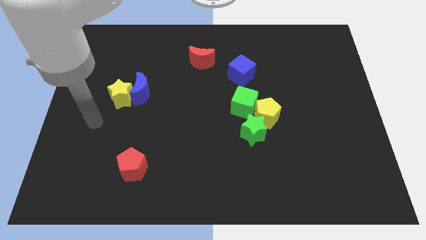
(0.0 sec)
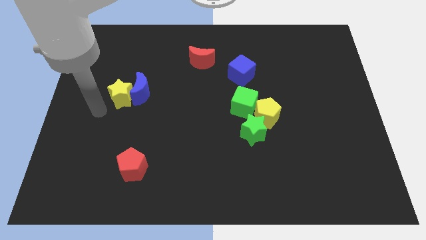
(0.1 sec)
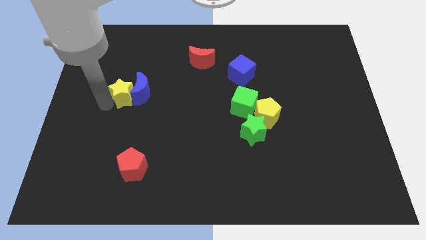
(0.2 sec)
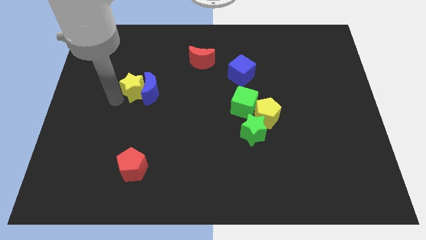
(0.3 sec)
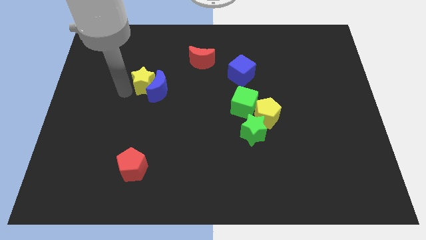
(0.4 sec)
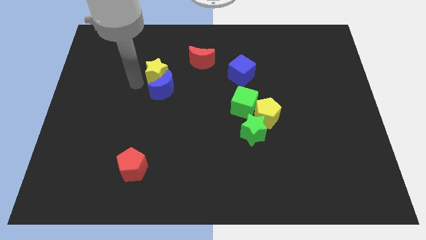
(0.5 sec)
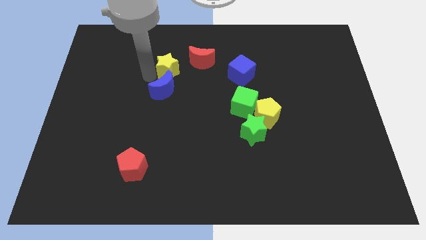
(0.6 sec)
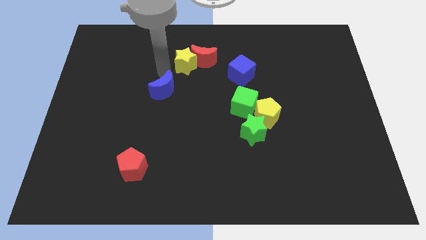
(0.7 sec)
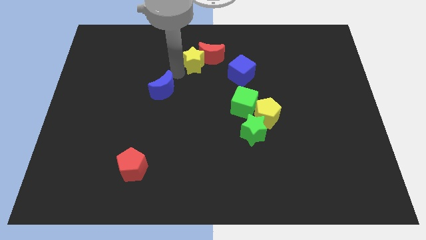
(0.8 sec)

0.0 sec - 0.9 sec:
separate the blue moon from the yellow star

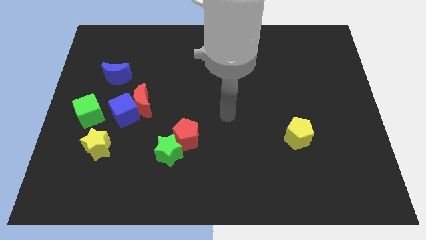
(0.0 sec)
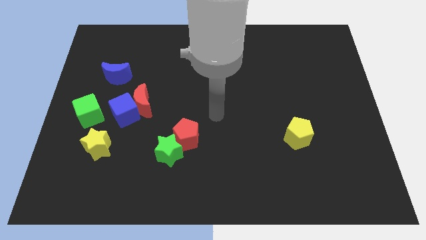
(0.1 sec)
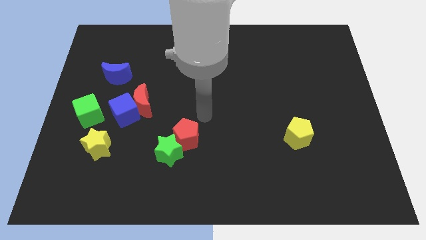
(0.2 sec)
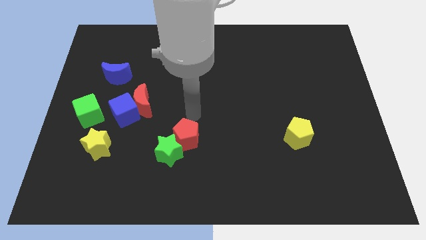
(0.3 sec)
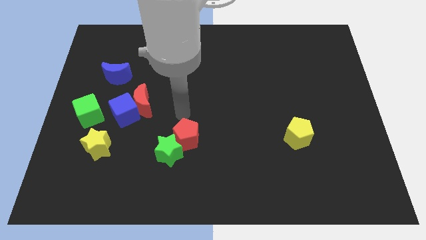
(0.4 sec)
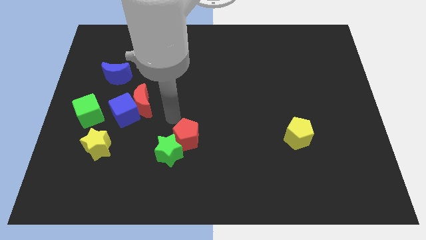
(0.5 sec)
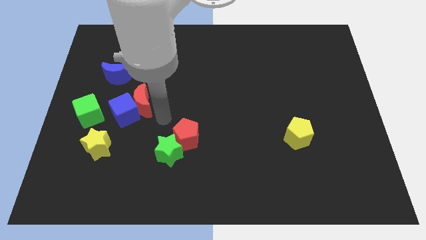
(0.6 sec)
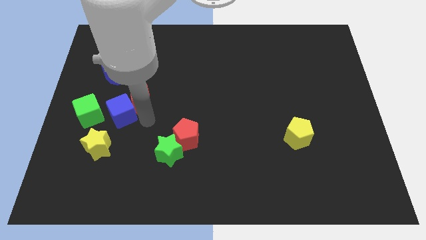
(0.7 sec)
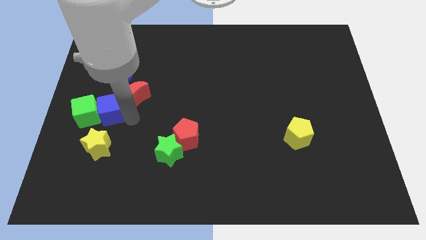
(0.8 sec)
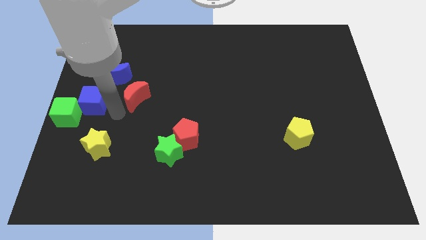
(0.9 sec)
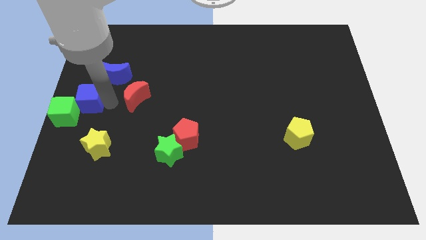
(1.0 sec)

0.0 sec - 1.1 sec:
pull the red moon apart from the blue cube

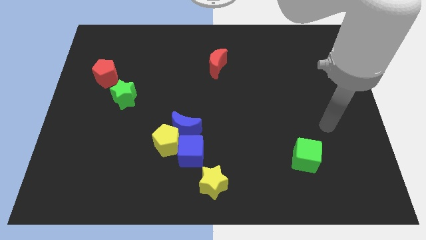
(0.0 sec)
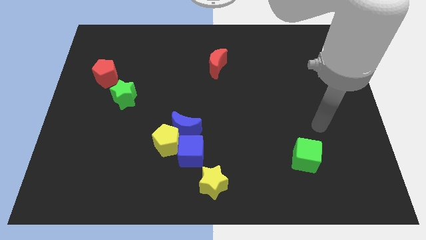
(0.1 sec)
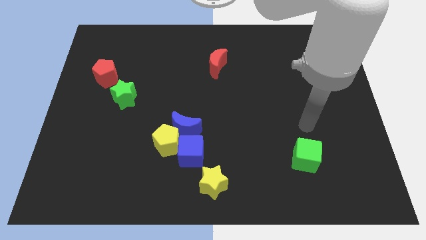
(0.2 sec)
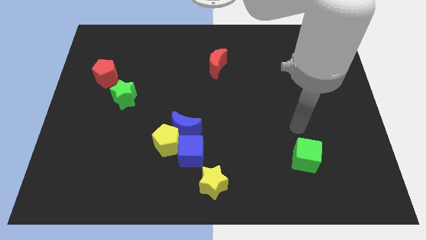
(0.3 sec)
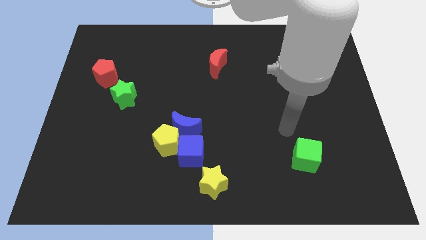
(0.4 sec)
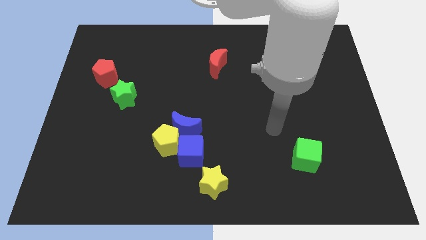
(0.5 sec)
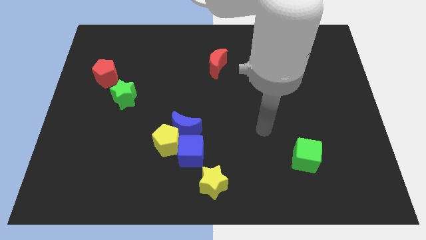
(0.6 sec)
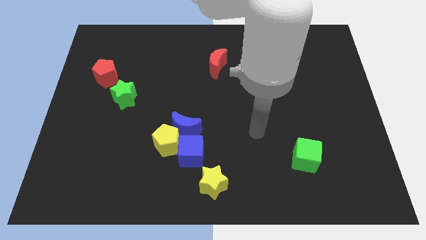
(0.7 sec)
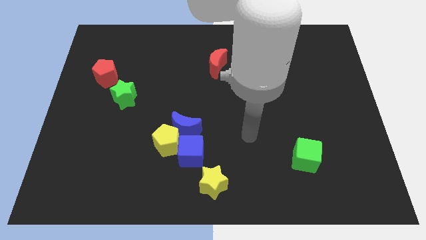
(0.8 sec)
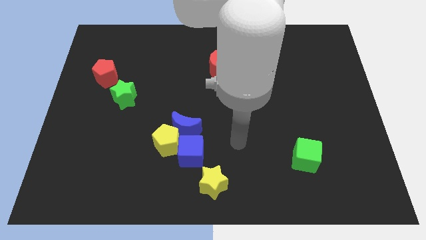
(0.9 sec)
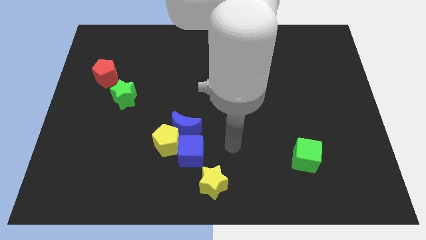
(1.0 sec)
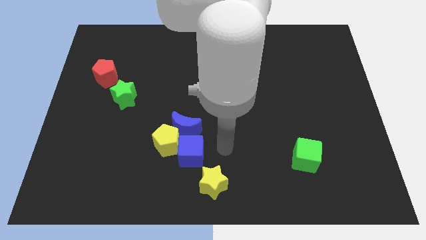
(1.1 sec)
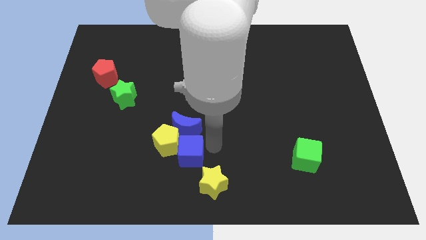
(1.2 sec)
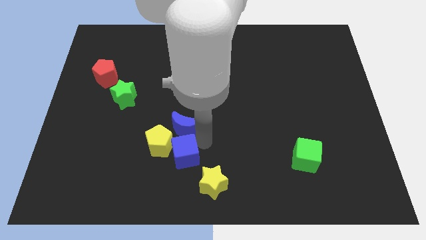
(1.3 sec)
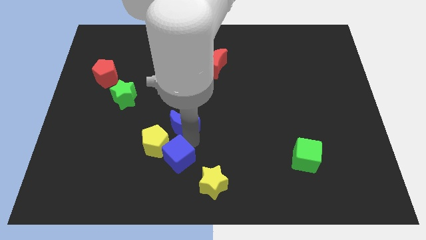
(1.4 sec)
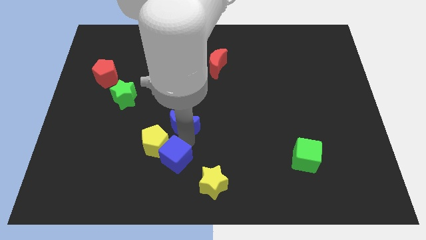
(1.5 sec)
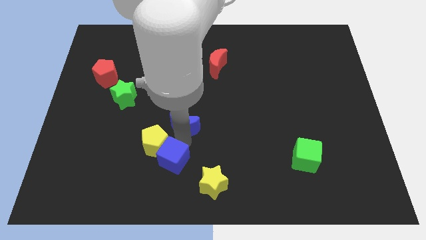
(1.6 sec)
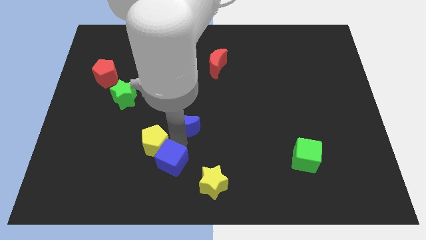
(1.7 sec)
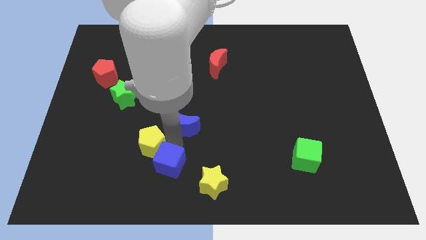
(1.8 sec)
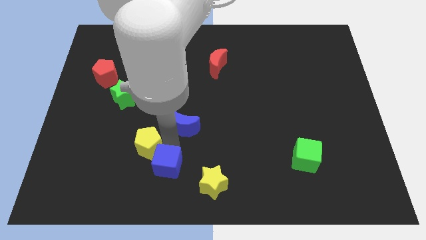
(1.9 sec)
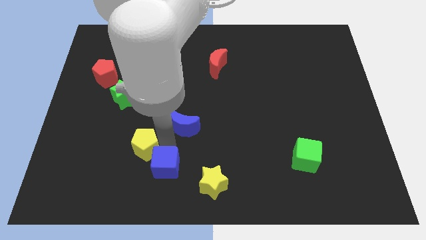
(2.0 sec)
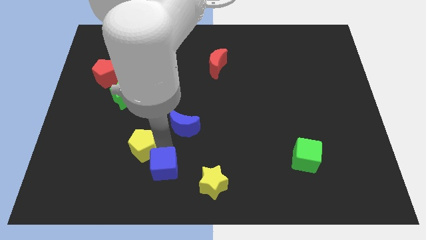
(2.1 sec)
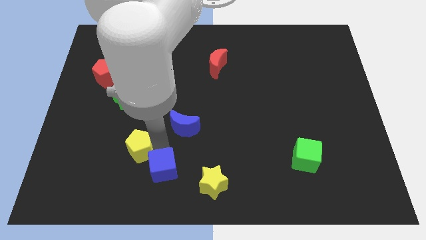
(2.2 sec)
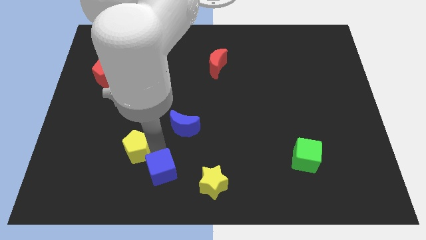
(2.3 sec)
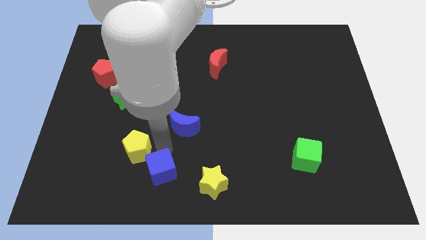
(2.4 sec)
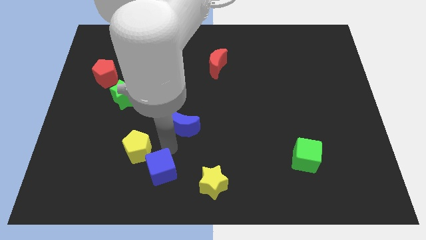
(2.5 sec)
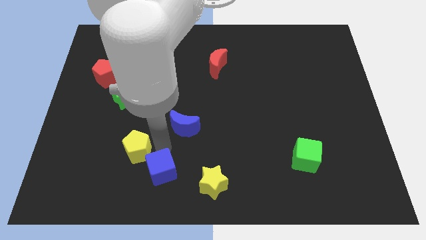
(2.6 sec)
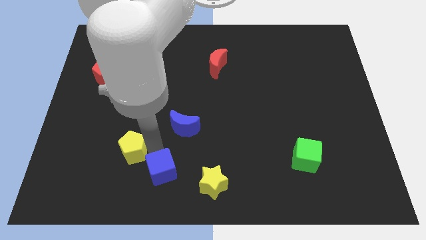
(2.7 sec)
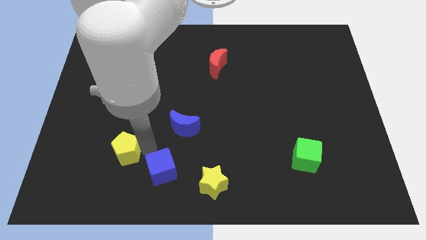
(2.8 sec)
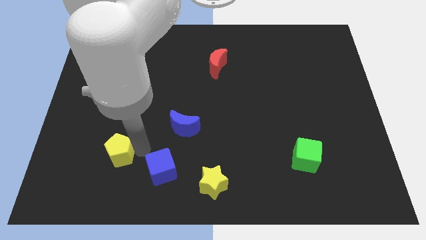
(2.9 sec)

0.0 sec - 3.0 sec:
move the yellow pentagon away from the blue moon and blue cube

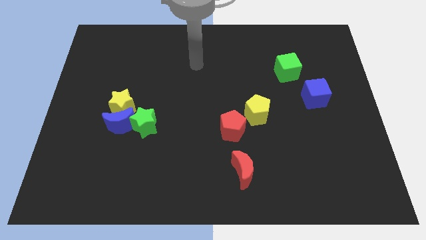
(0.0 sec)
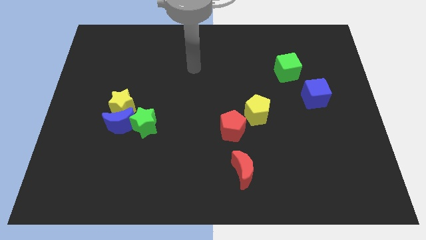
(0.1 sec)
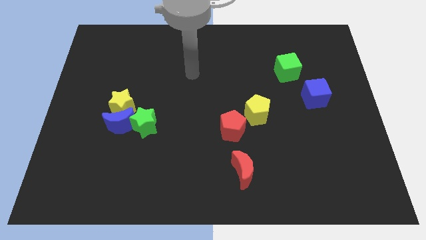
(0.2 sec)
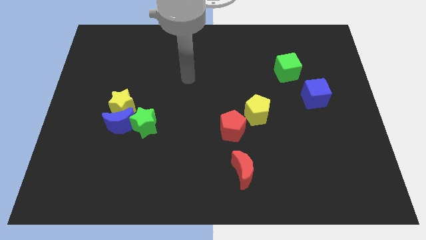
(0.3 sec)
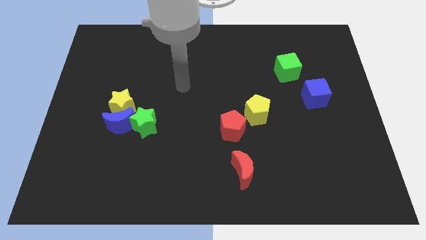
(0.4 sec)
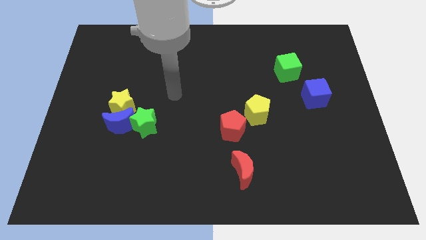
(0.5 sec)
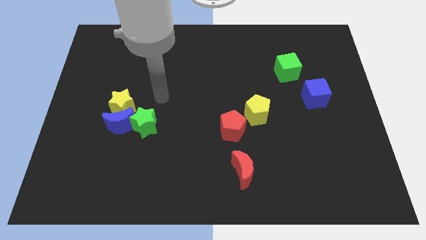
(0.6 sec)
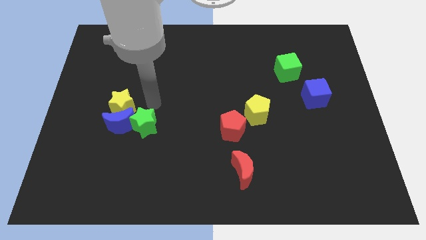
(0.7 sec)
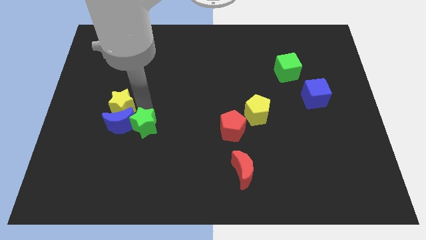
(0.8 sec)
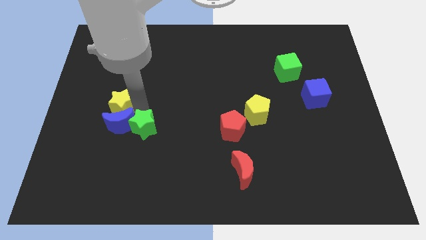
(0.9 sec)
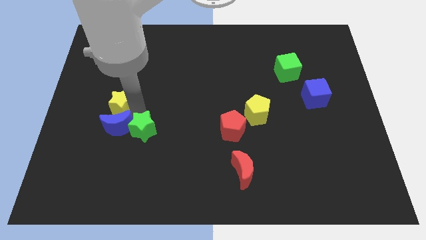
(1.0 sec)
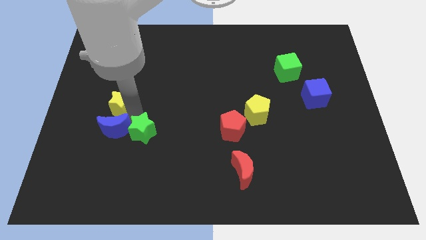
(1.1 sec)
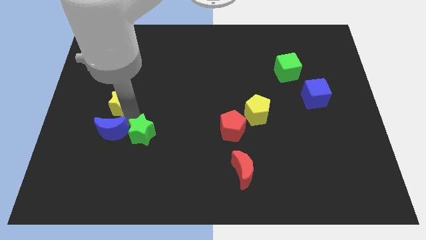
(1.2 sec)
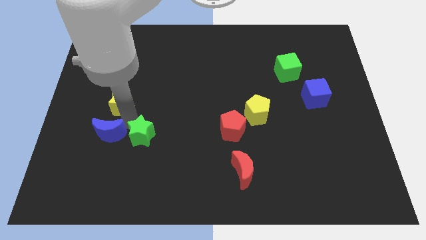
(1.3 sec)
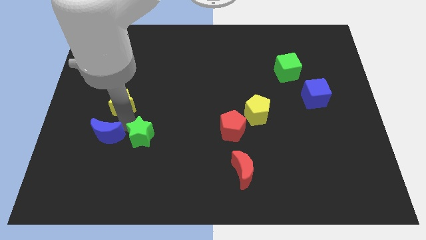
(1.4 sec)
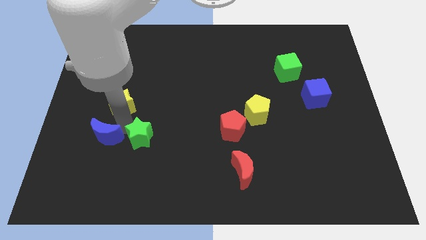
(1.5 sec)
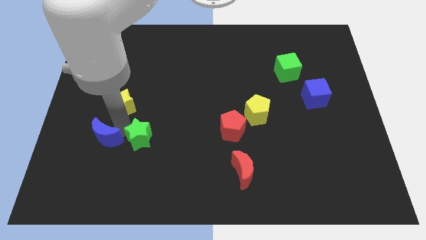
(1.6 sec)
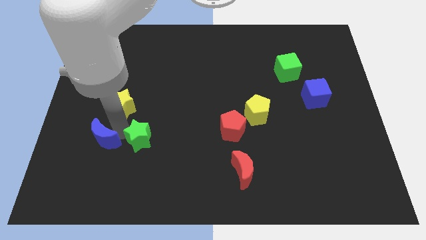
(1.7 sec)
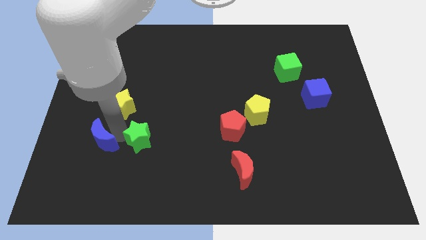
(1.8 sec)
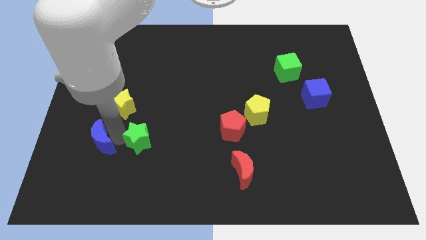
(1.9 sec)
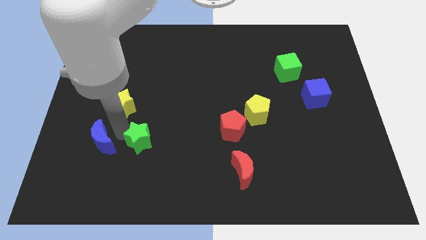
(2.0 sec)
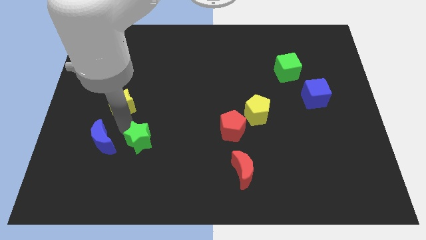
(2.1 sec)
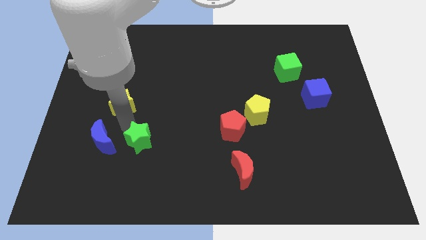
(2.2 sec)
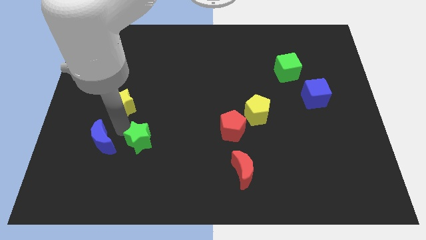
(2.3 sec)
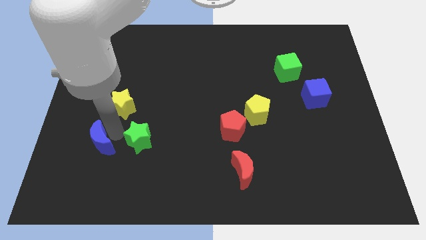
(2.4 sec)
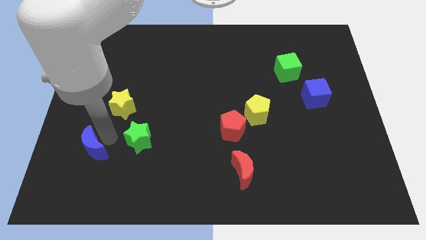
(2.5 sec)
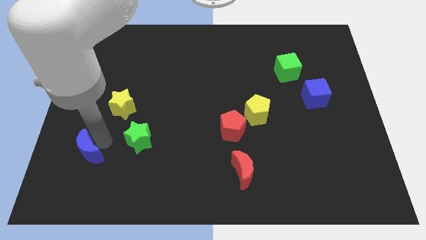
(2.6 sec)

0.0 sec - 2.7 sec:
pull the blue moon apart from the yellow star and green star

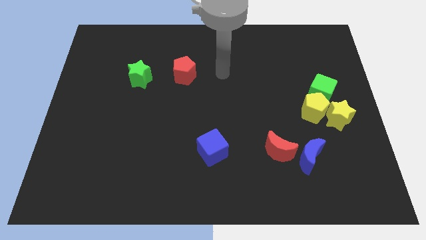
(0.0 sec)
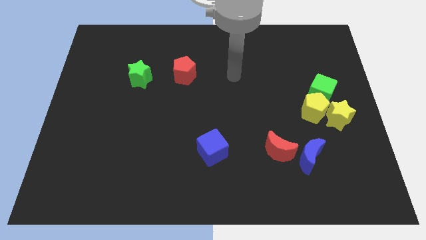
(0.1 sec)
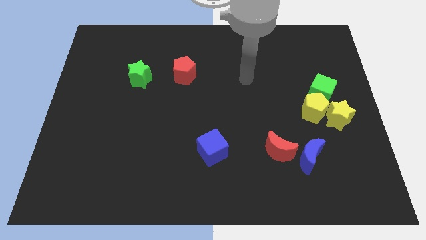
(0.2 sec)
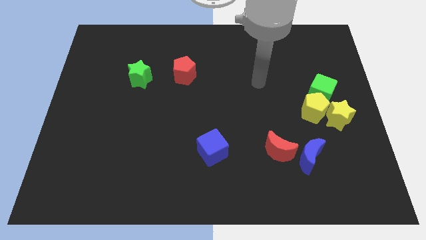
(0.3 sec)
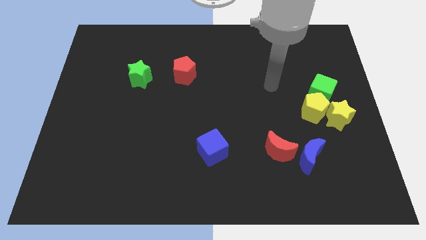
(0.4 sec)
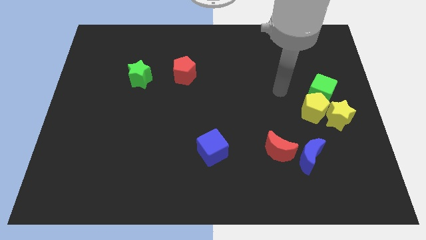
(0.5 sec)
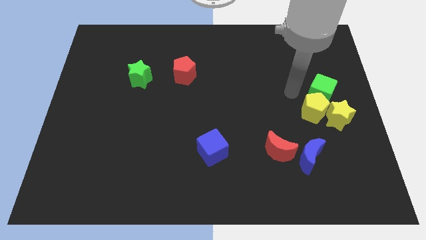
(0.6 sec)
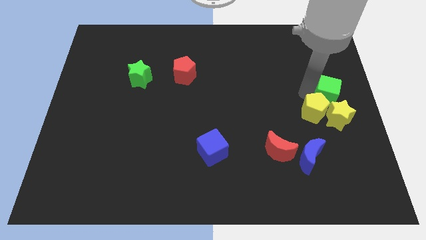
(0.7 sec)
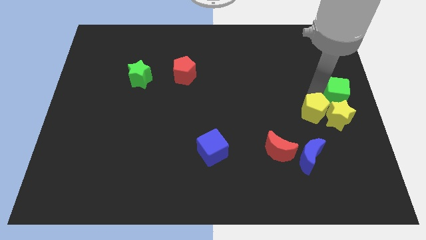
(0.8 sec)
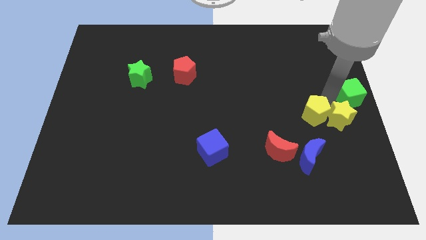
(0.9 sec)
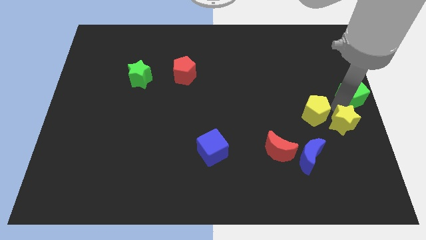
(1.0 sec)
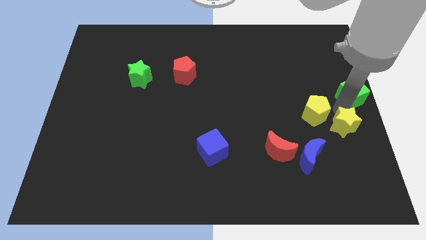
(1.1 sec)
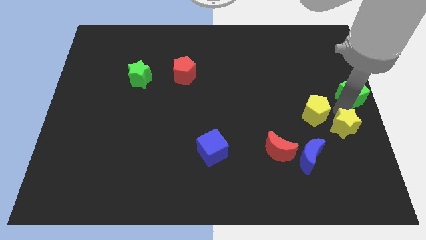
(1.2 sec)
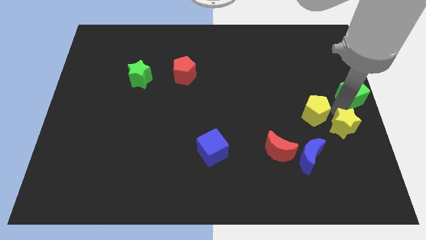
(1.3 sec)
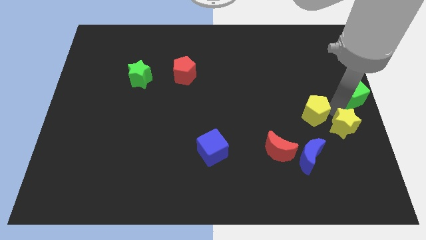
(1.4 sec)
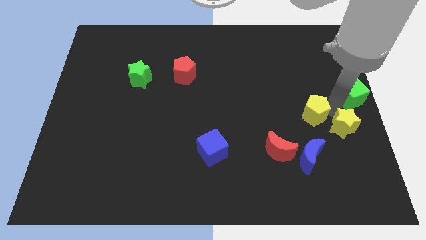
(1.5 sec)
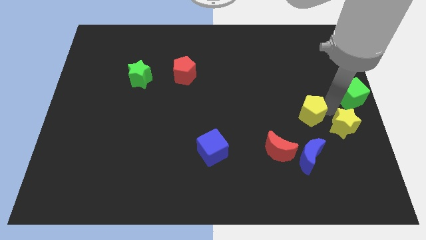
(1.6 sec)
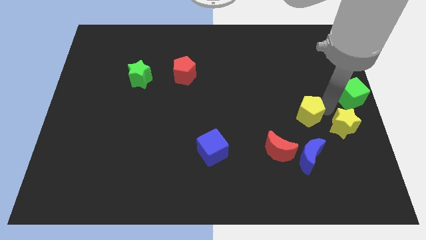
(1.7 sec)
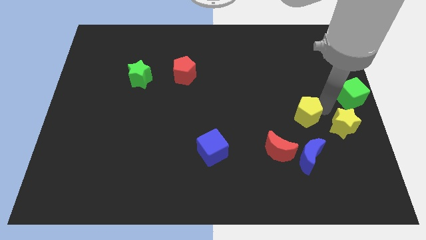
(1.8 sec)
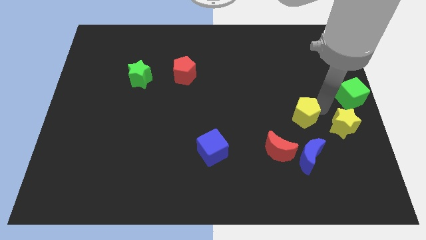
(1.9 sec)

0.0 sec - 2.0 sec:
move the yellow pentagon away from the green cube and yellow star
